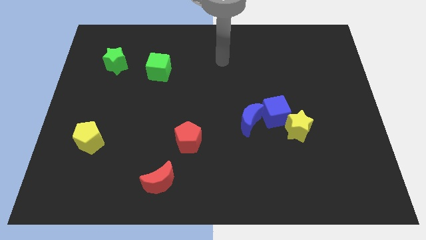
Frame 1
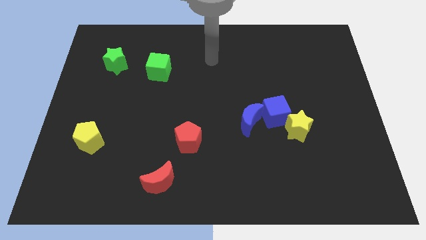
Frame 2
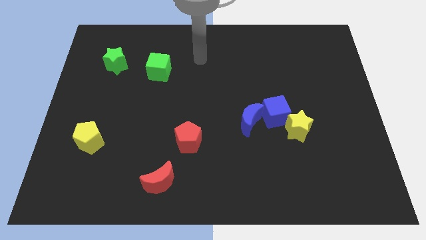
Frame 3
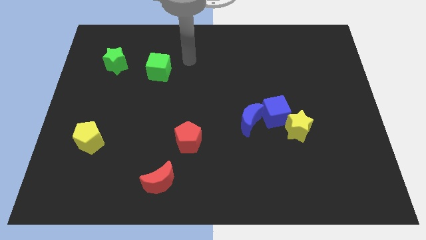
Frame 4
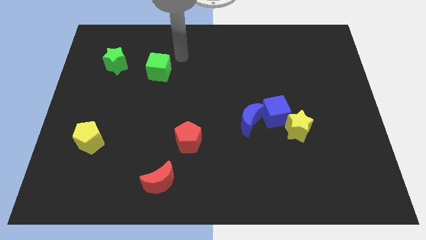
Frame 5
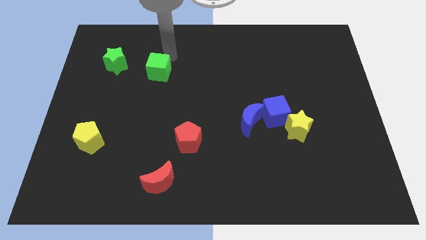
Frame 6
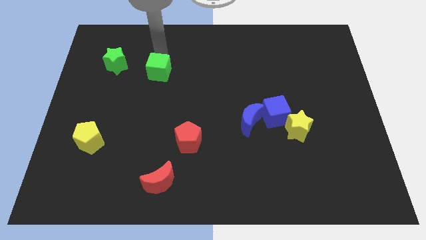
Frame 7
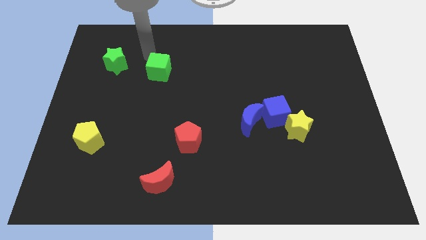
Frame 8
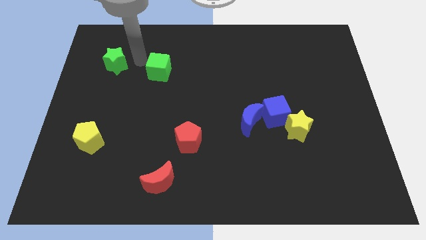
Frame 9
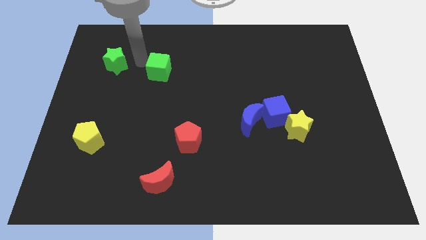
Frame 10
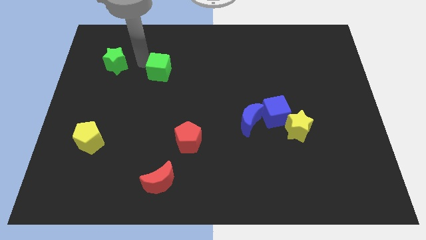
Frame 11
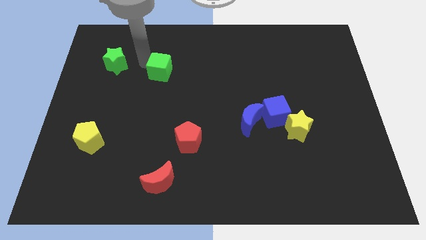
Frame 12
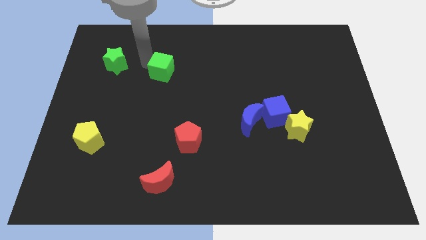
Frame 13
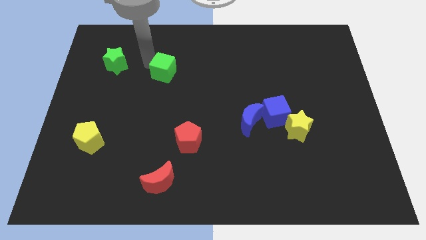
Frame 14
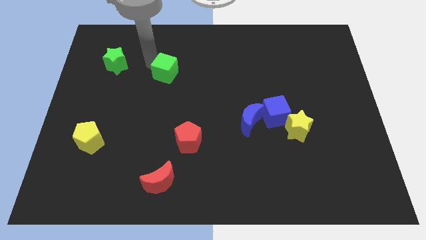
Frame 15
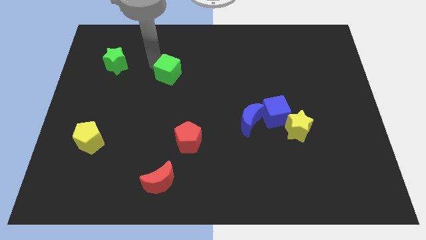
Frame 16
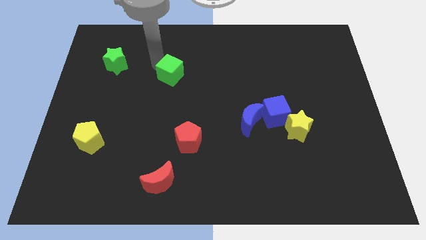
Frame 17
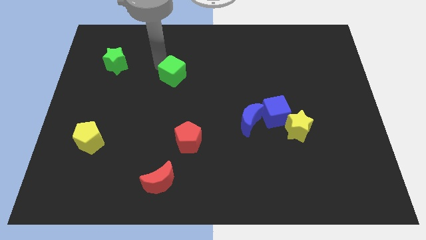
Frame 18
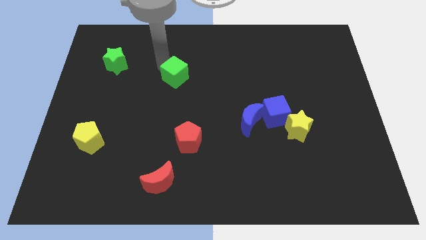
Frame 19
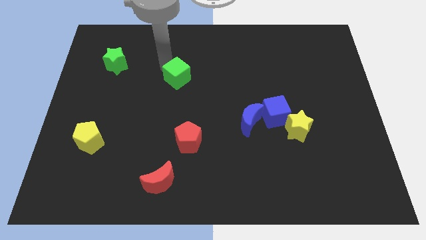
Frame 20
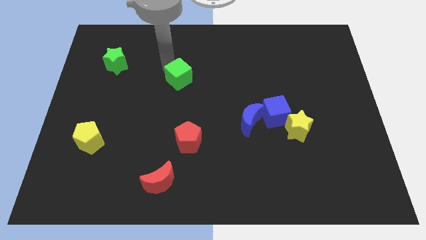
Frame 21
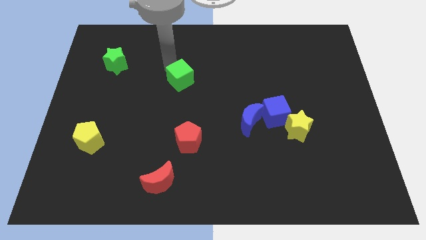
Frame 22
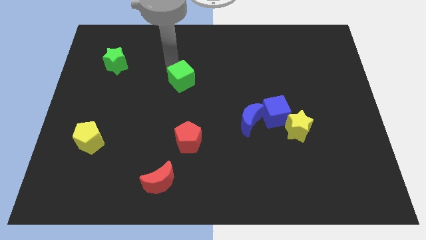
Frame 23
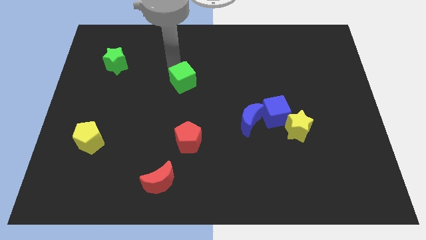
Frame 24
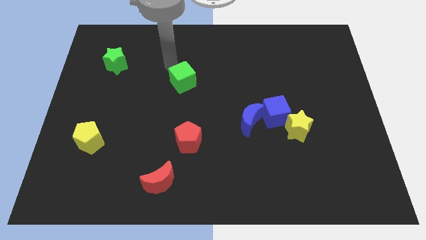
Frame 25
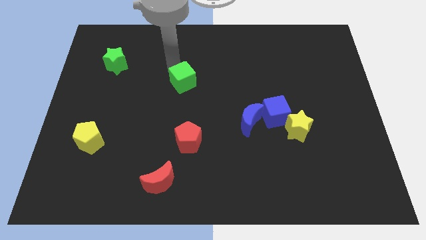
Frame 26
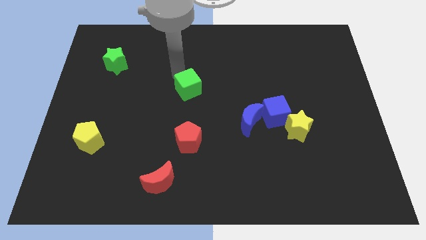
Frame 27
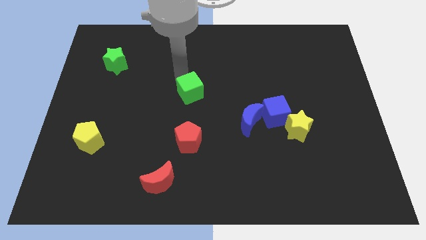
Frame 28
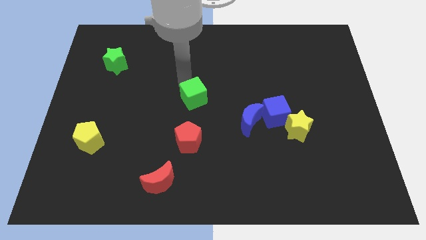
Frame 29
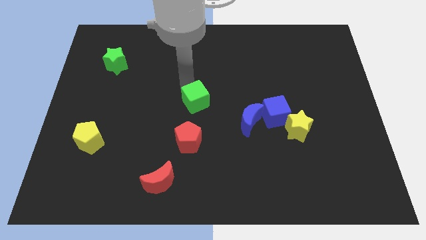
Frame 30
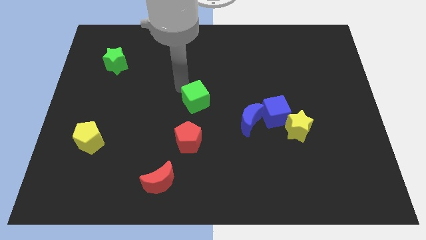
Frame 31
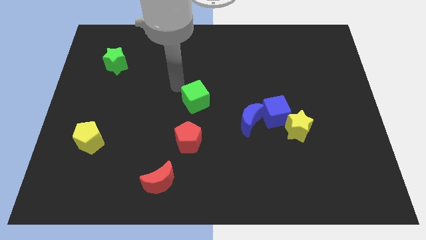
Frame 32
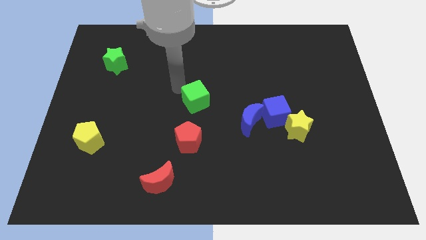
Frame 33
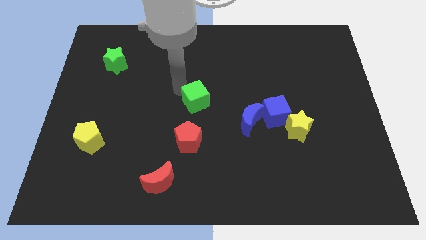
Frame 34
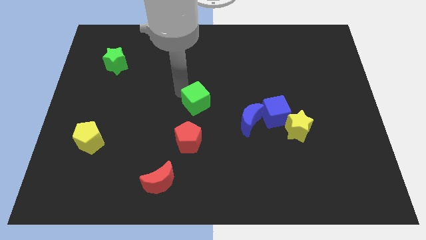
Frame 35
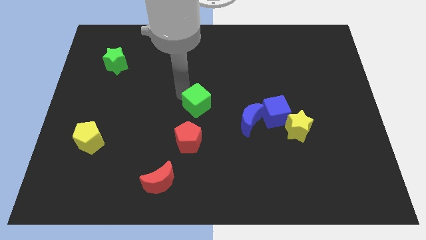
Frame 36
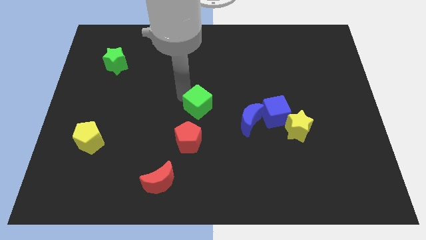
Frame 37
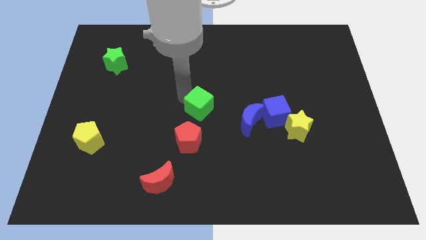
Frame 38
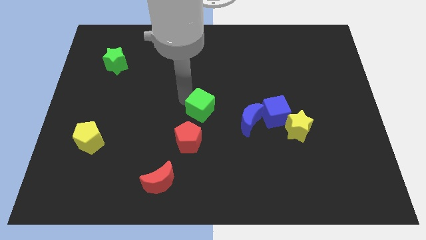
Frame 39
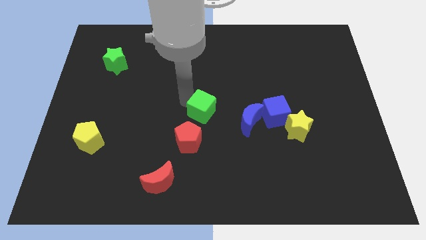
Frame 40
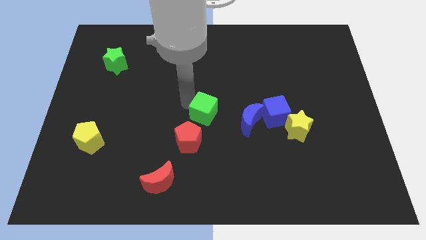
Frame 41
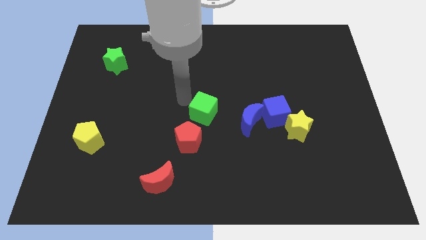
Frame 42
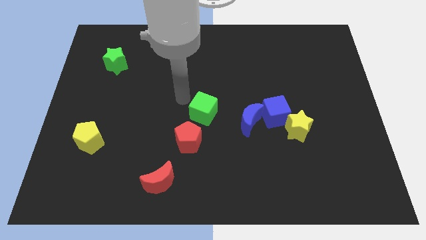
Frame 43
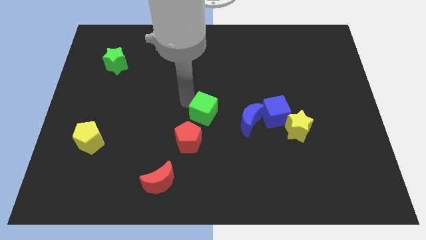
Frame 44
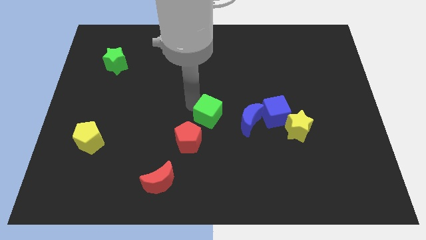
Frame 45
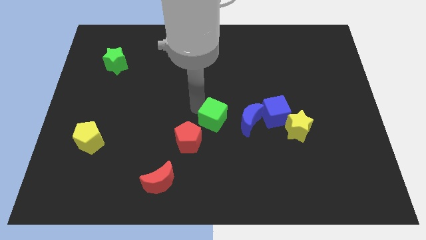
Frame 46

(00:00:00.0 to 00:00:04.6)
slide the green cube diagonally down and to the right

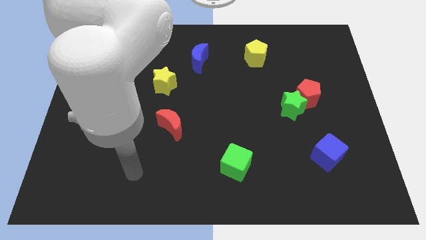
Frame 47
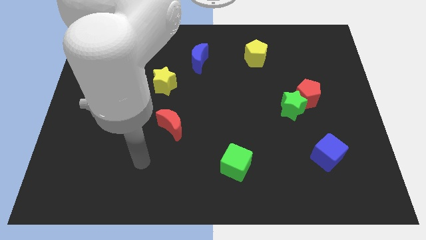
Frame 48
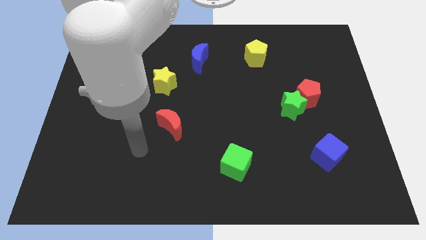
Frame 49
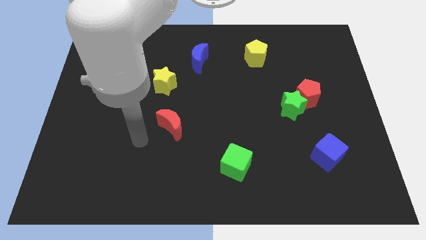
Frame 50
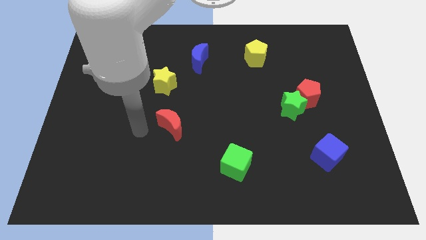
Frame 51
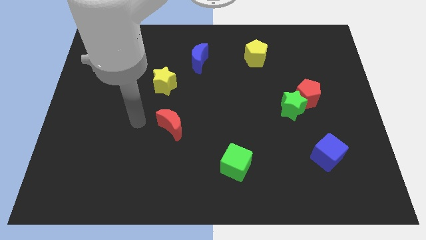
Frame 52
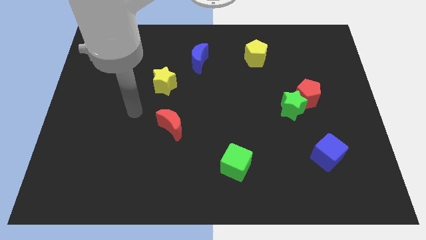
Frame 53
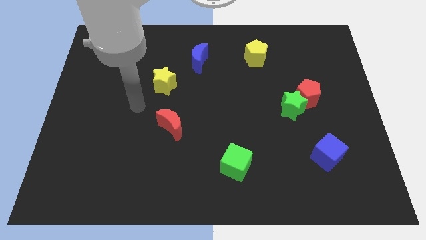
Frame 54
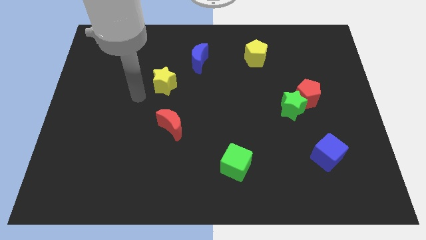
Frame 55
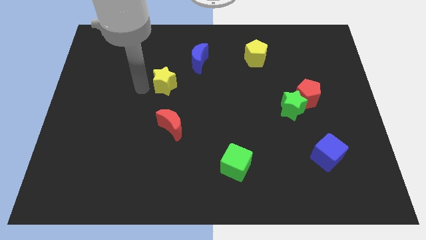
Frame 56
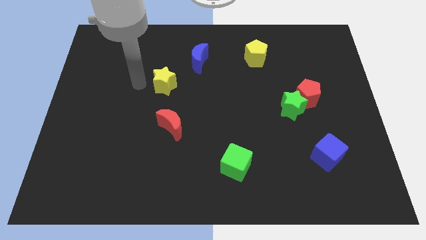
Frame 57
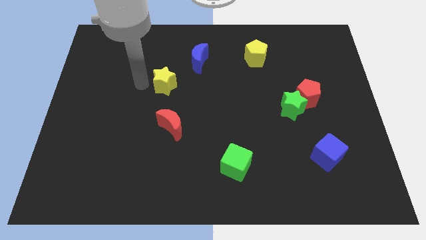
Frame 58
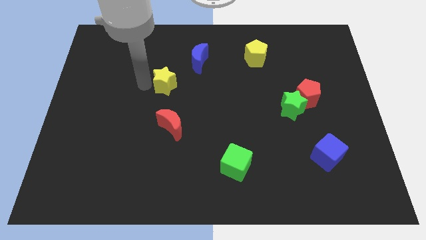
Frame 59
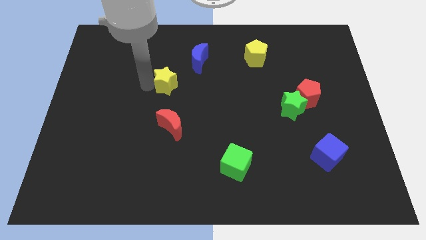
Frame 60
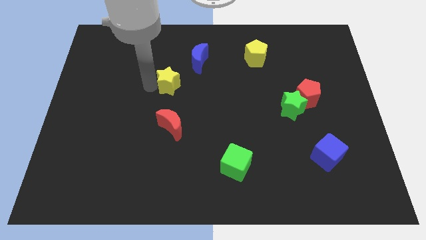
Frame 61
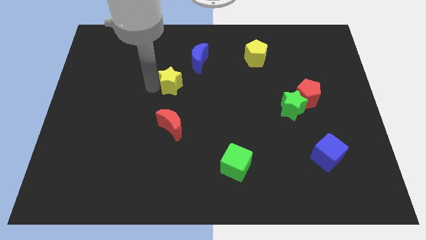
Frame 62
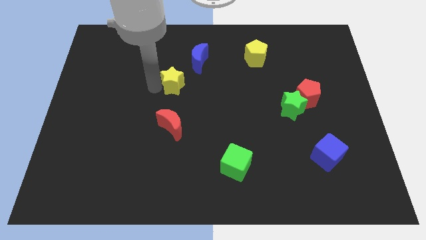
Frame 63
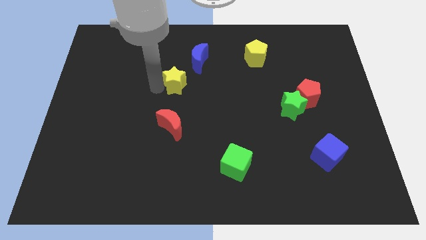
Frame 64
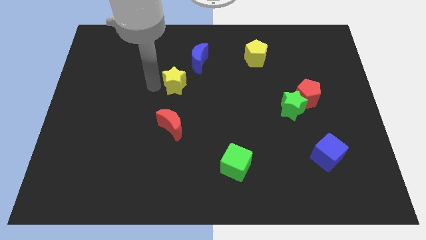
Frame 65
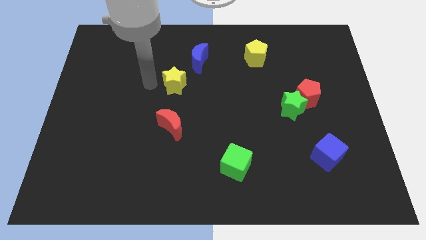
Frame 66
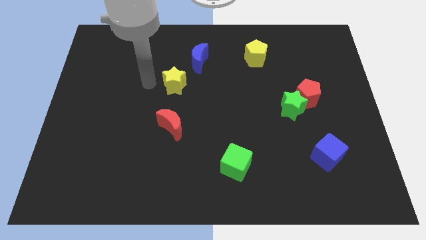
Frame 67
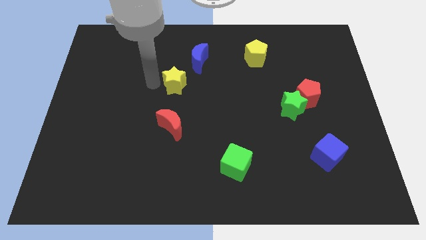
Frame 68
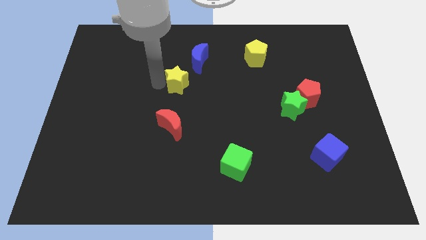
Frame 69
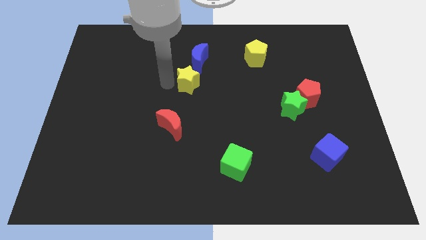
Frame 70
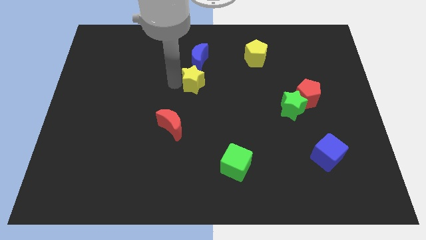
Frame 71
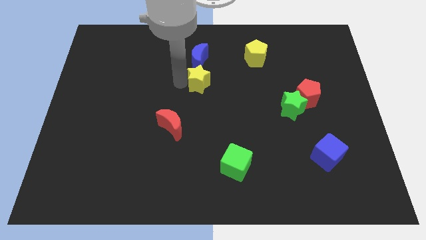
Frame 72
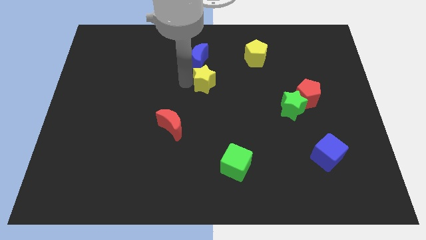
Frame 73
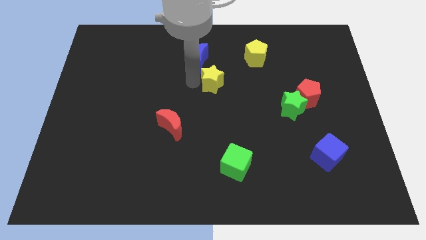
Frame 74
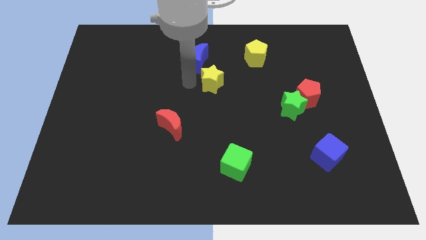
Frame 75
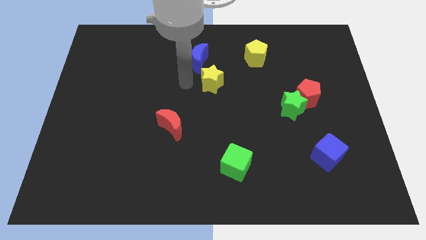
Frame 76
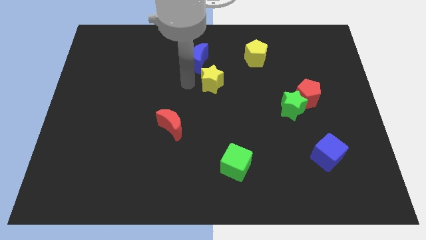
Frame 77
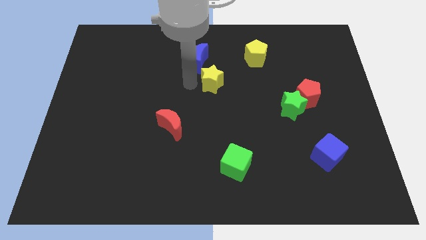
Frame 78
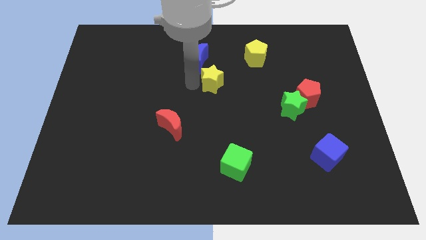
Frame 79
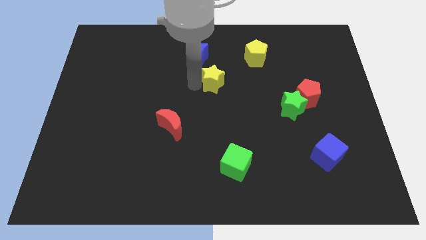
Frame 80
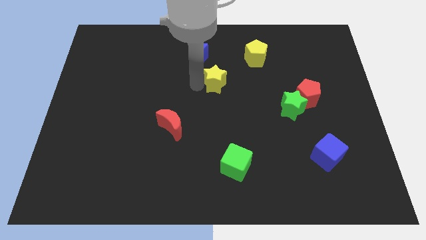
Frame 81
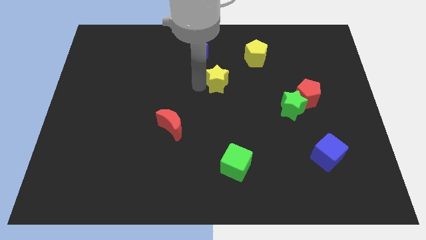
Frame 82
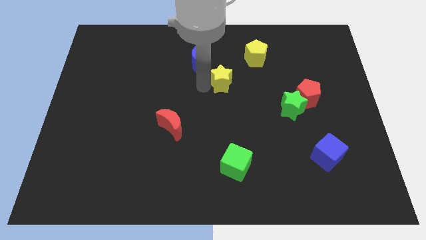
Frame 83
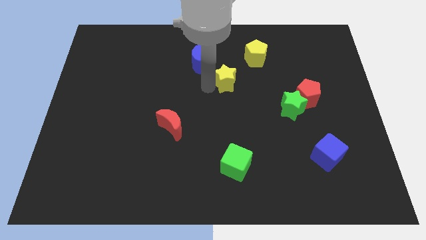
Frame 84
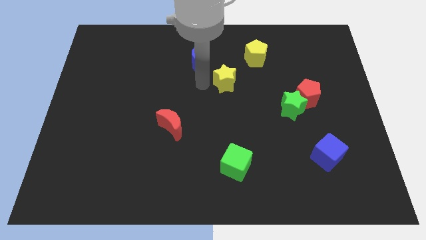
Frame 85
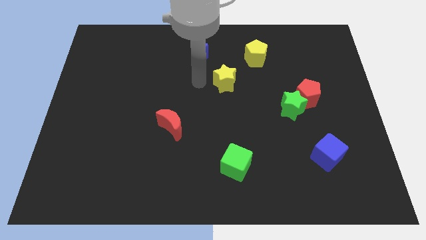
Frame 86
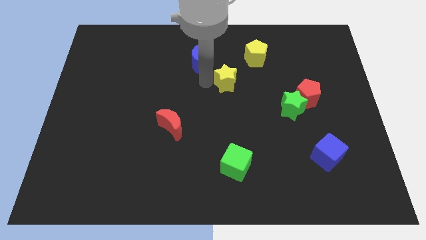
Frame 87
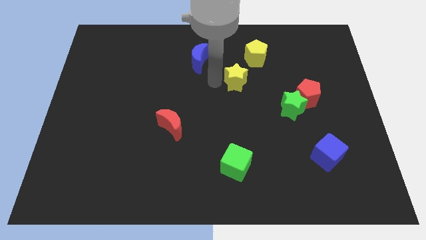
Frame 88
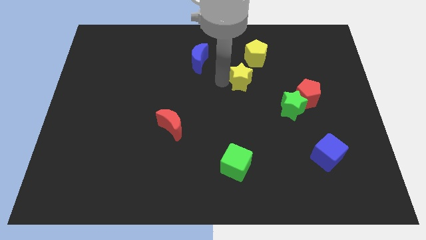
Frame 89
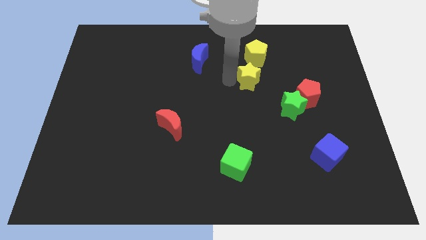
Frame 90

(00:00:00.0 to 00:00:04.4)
move the yellow star right
